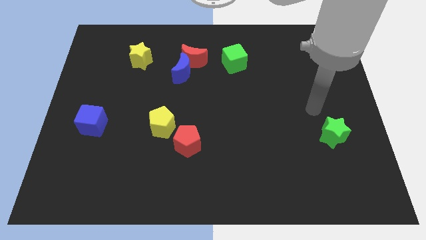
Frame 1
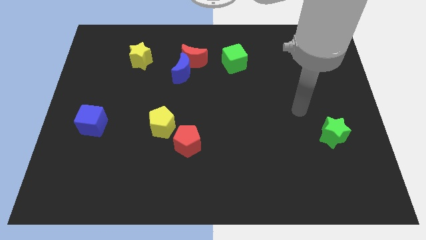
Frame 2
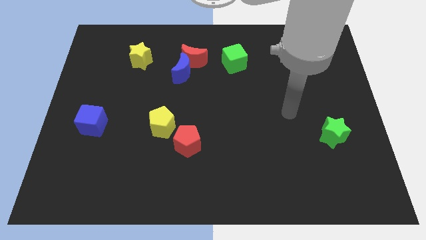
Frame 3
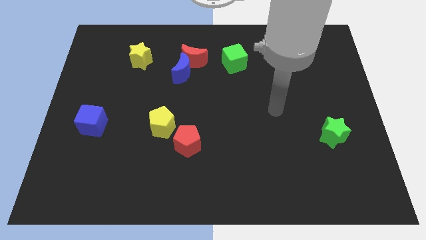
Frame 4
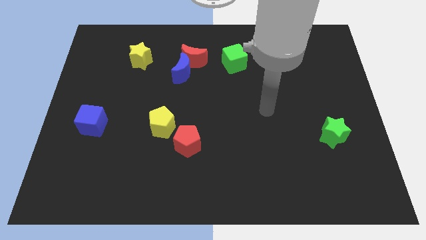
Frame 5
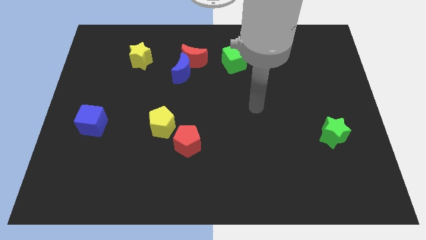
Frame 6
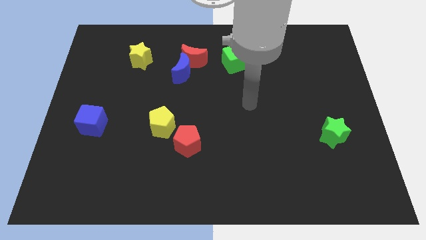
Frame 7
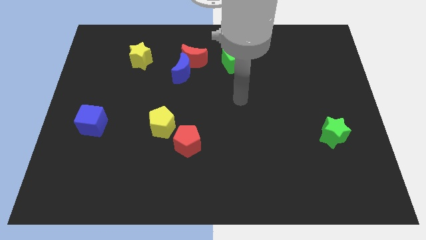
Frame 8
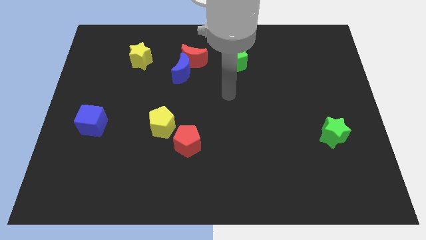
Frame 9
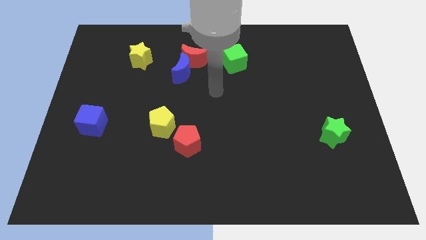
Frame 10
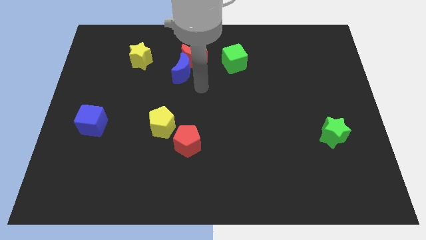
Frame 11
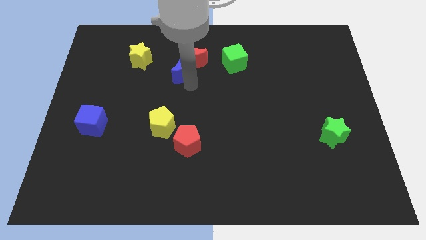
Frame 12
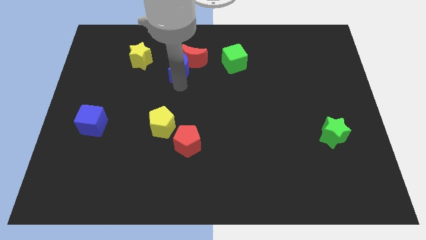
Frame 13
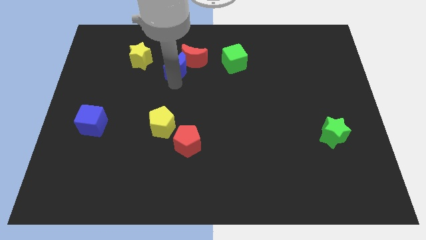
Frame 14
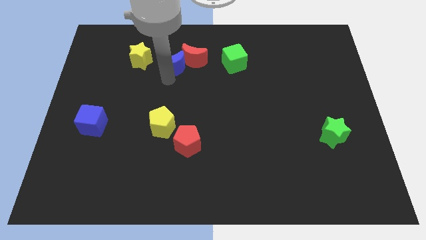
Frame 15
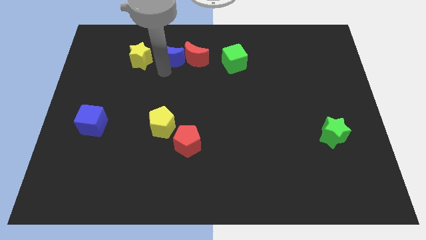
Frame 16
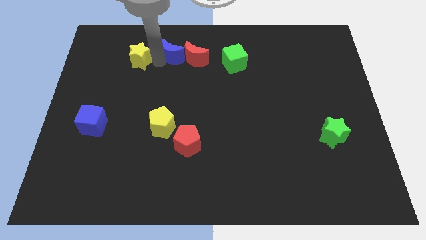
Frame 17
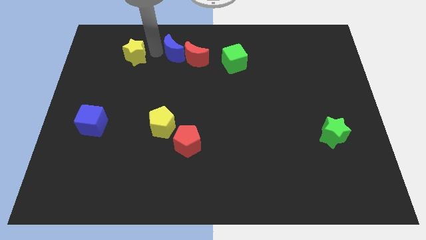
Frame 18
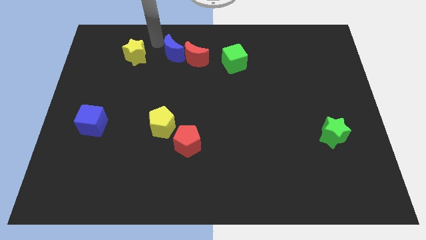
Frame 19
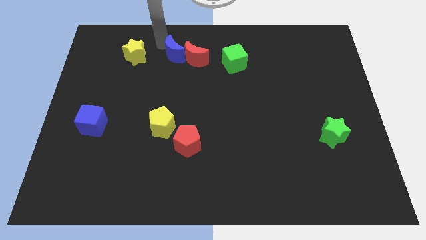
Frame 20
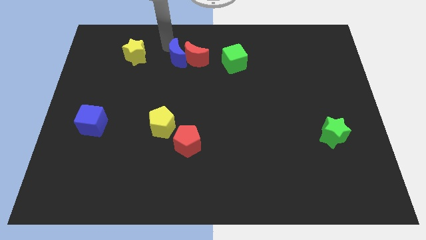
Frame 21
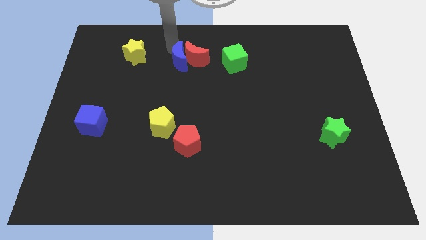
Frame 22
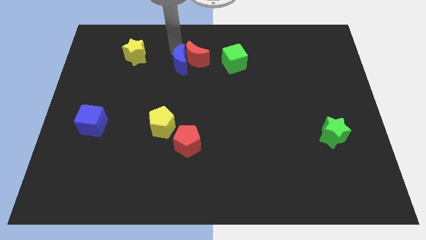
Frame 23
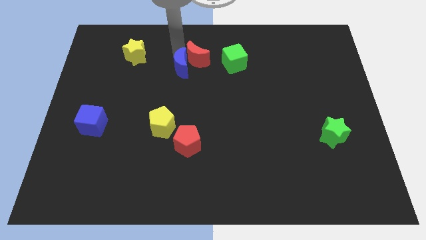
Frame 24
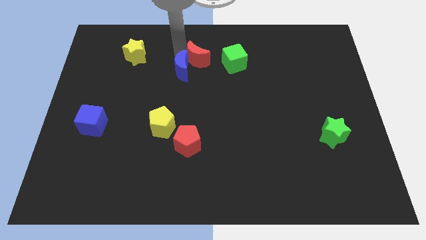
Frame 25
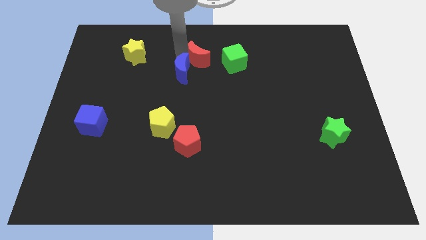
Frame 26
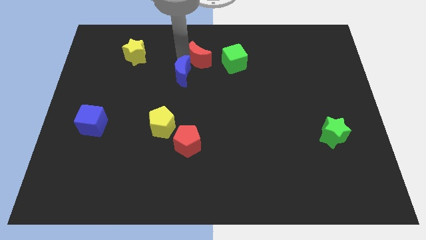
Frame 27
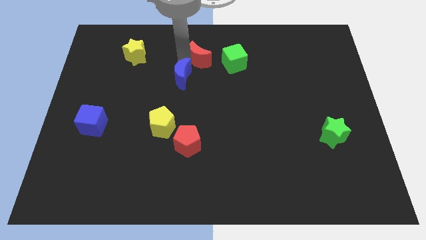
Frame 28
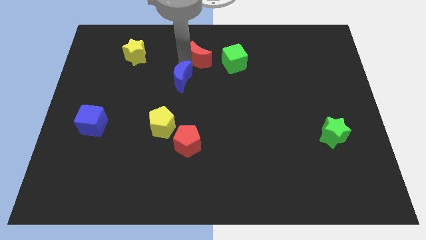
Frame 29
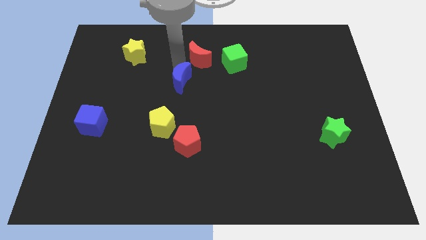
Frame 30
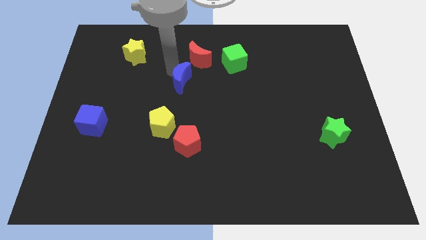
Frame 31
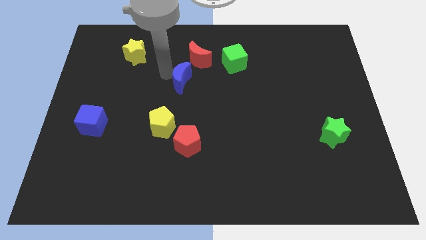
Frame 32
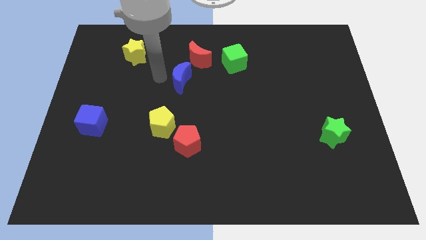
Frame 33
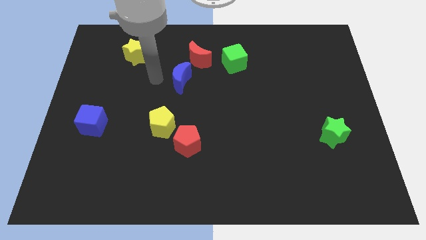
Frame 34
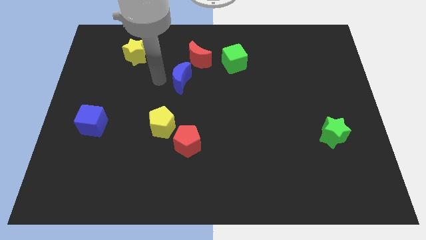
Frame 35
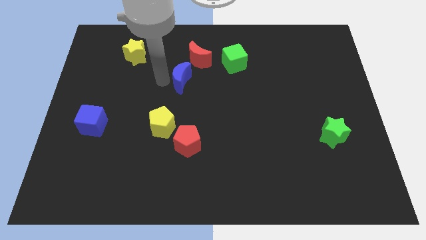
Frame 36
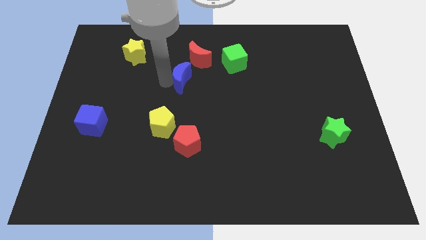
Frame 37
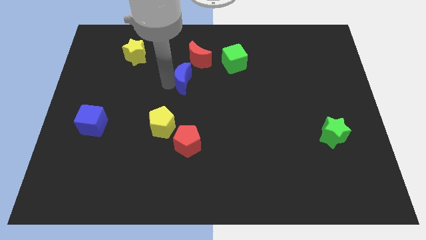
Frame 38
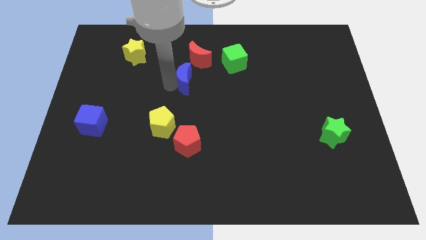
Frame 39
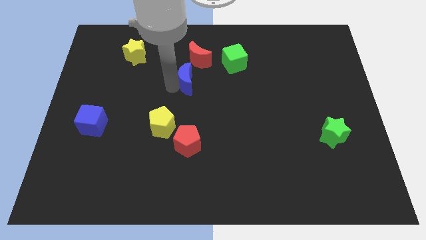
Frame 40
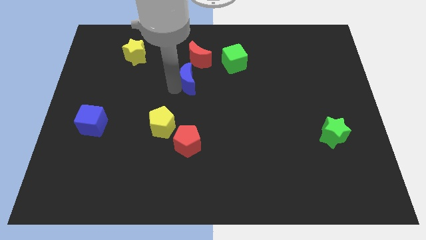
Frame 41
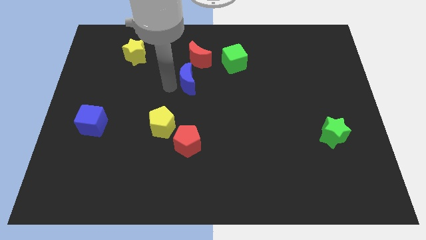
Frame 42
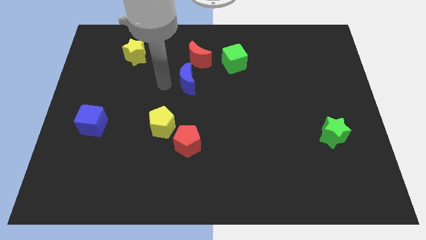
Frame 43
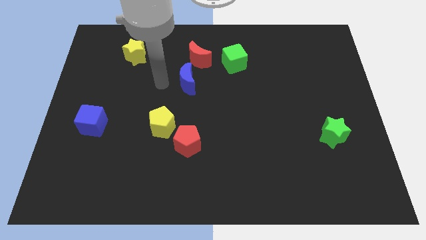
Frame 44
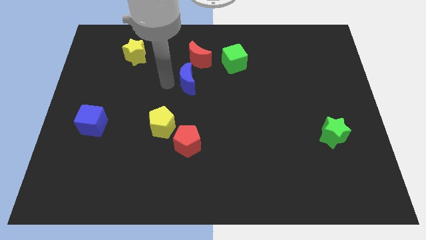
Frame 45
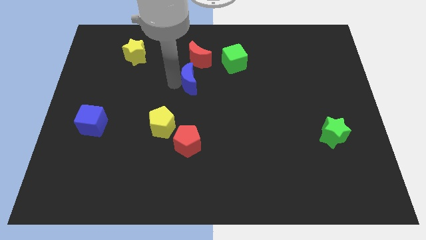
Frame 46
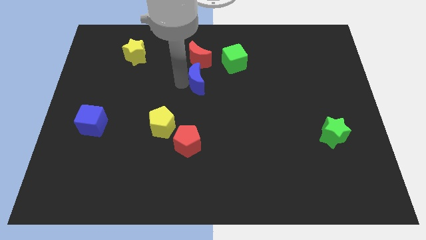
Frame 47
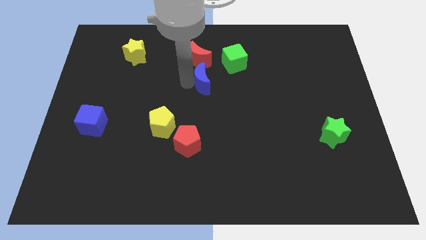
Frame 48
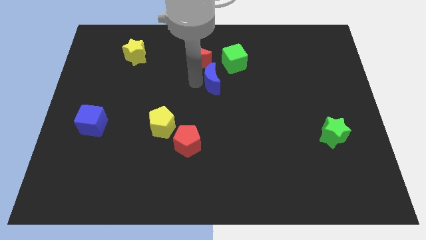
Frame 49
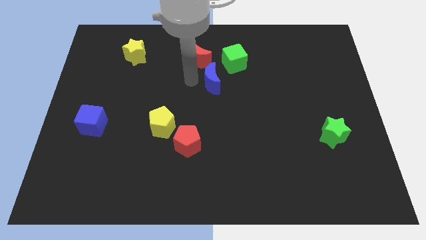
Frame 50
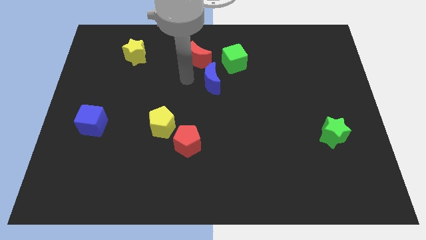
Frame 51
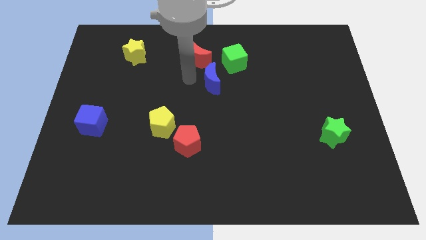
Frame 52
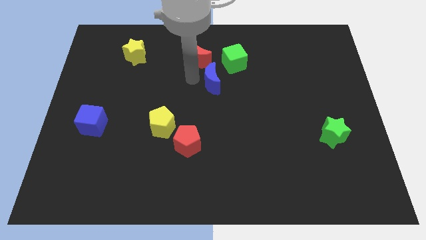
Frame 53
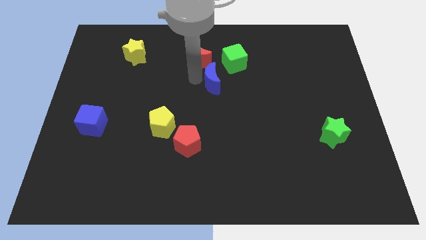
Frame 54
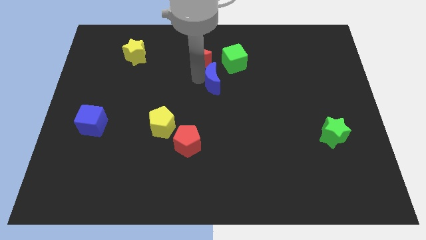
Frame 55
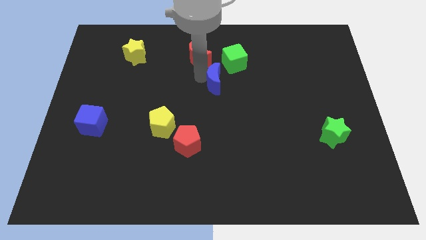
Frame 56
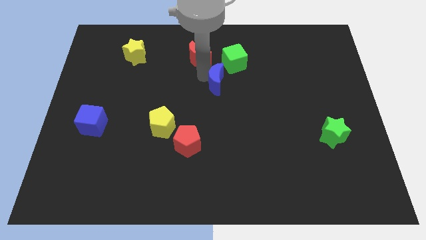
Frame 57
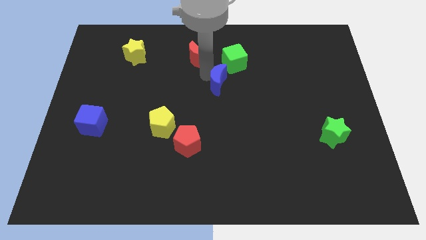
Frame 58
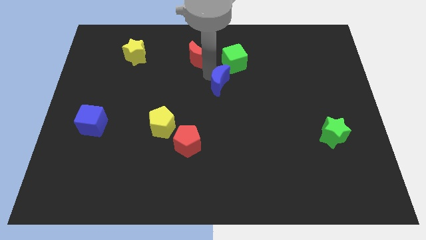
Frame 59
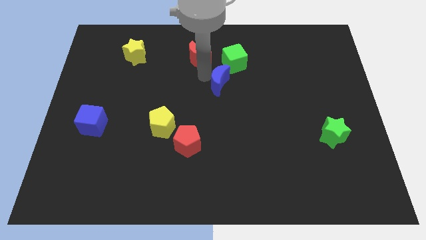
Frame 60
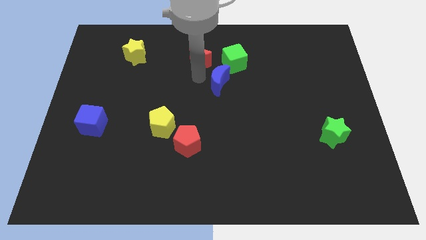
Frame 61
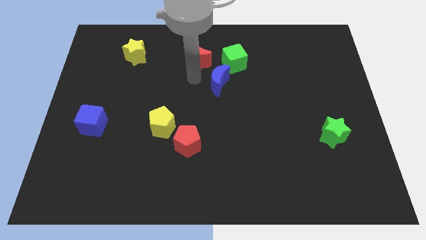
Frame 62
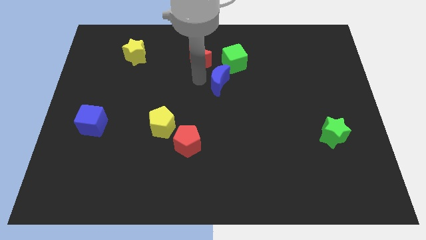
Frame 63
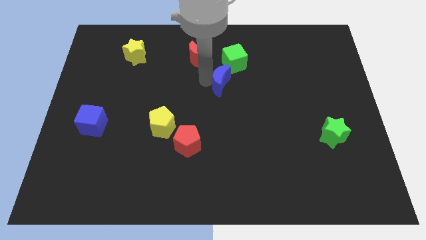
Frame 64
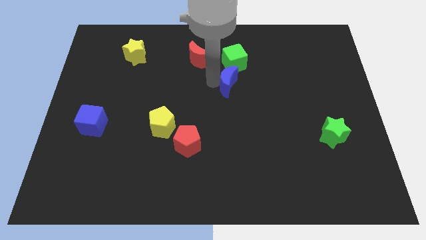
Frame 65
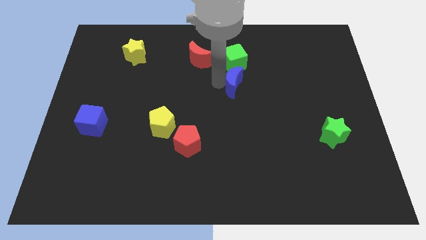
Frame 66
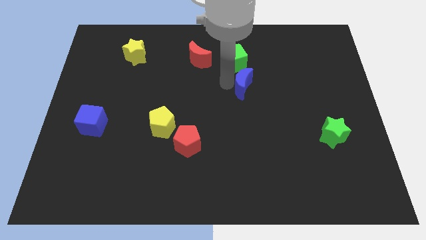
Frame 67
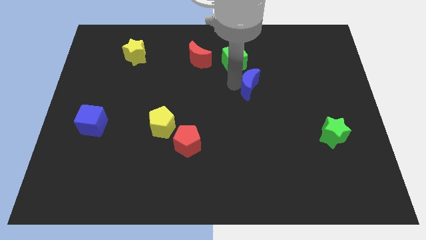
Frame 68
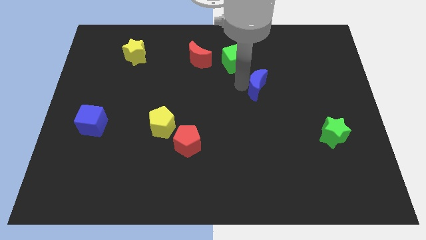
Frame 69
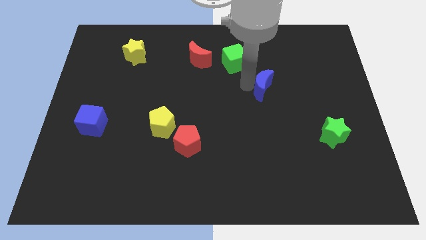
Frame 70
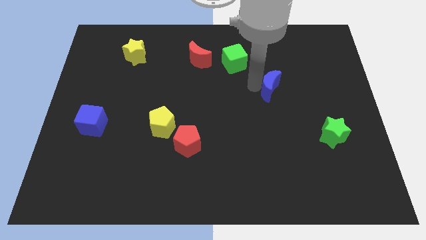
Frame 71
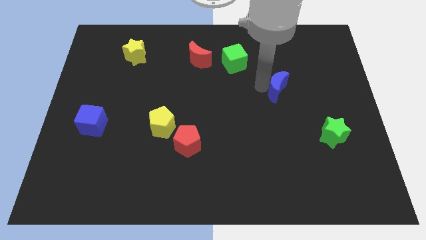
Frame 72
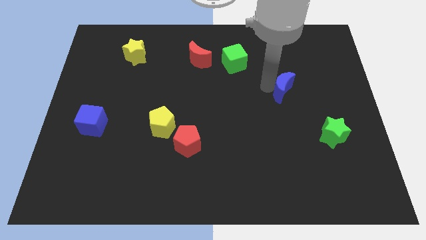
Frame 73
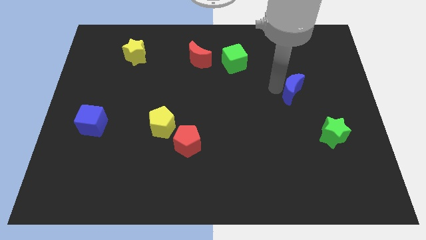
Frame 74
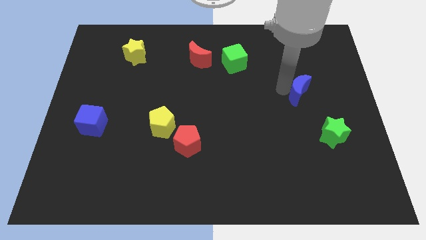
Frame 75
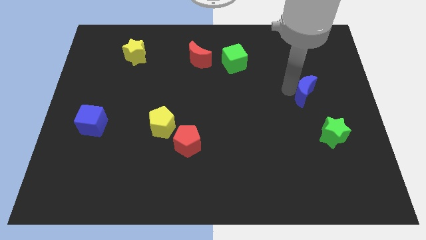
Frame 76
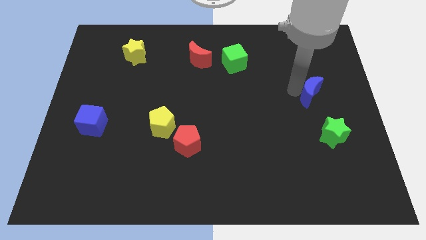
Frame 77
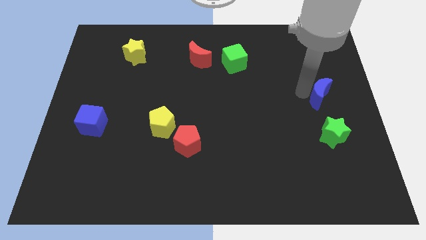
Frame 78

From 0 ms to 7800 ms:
push the blue moon to the center right
